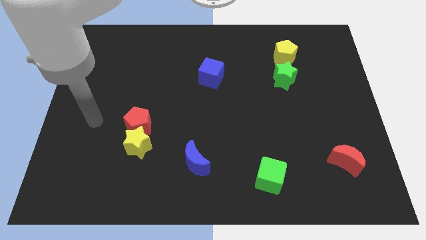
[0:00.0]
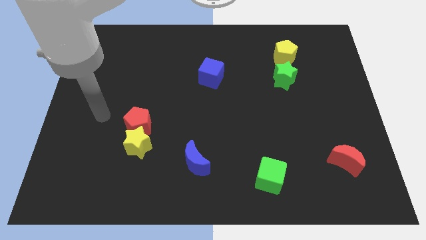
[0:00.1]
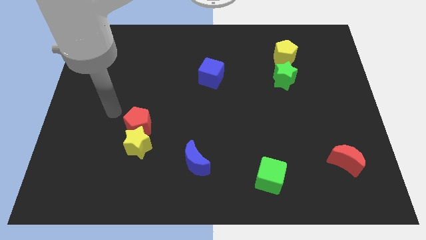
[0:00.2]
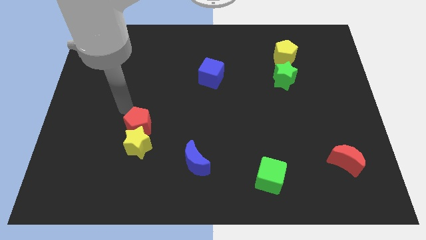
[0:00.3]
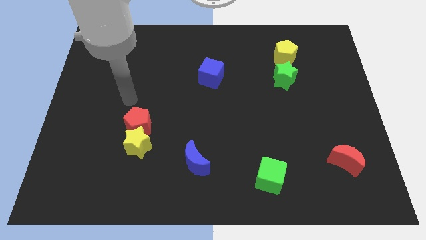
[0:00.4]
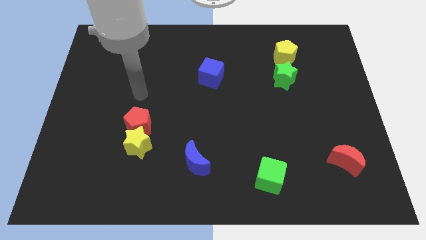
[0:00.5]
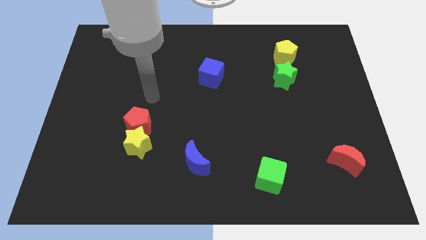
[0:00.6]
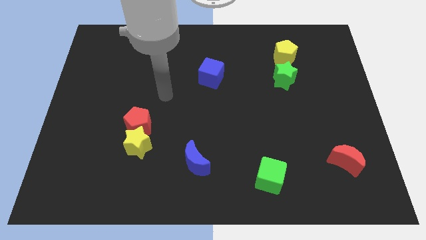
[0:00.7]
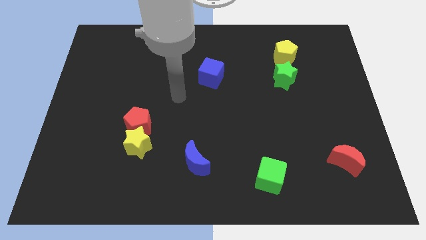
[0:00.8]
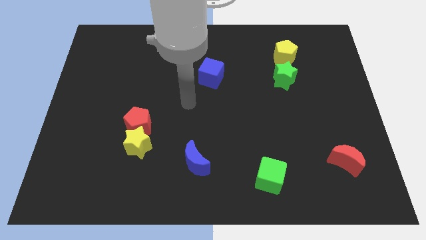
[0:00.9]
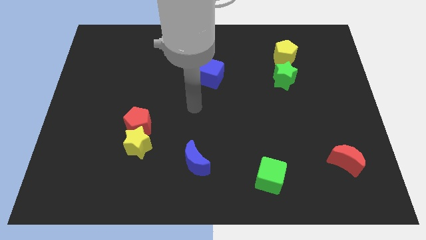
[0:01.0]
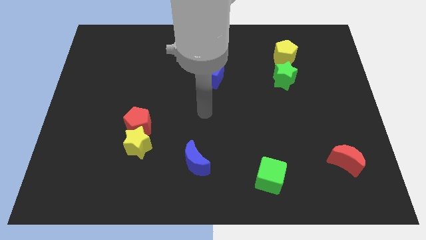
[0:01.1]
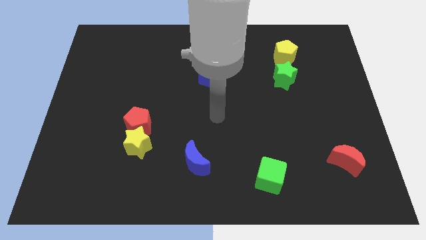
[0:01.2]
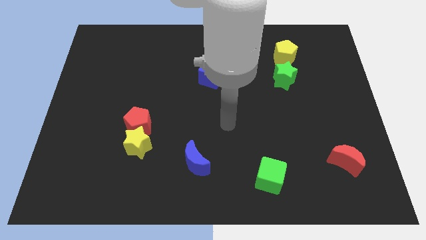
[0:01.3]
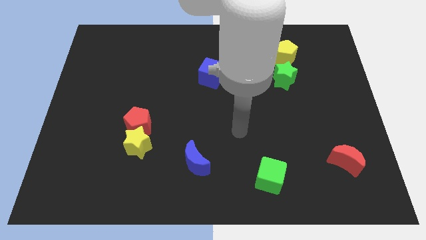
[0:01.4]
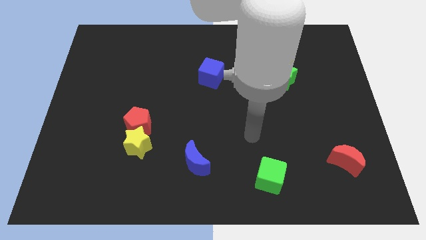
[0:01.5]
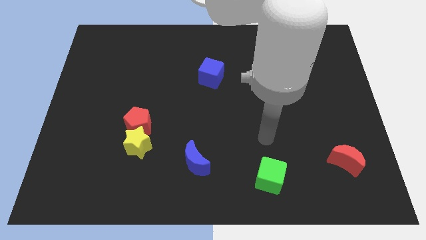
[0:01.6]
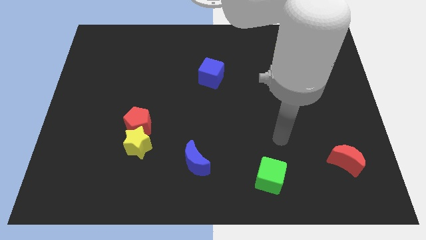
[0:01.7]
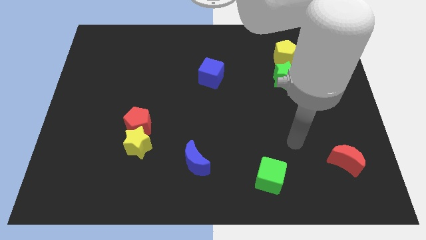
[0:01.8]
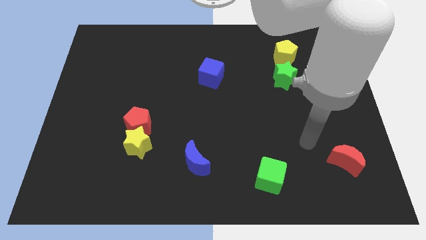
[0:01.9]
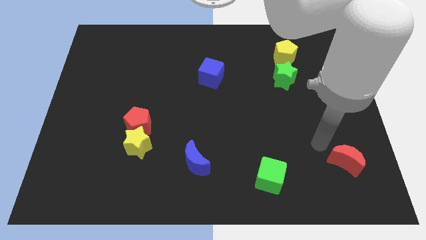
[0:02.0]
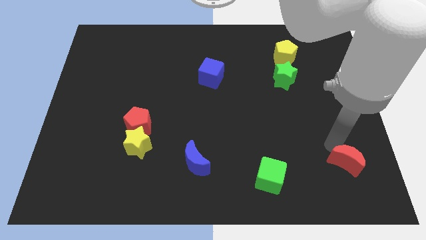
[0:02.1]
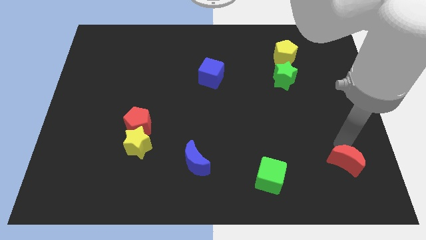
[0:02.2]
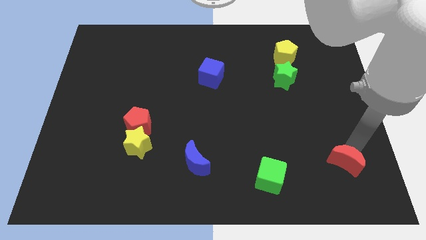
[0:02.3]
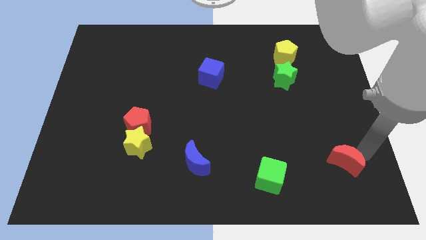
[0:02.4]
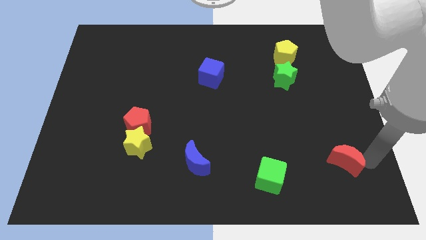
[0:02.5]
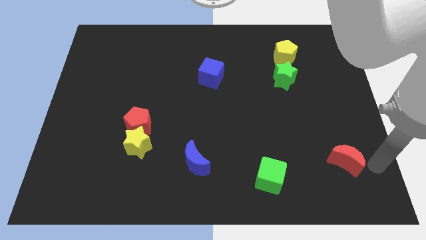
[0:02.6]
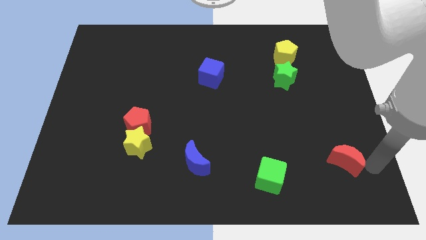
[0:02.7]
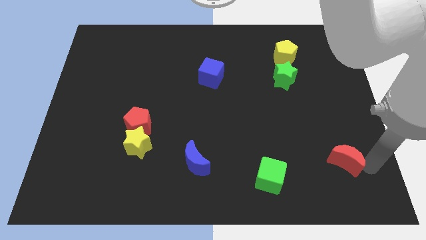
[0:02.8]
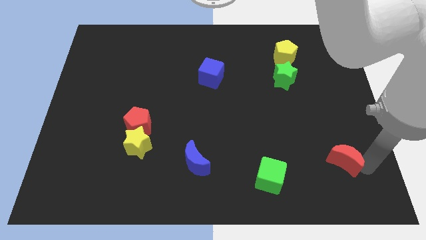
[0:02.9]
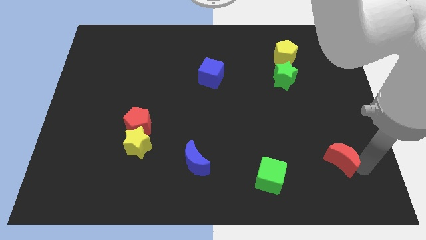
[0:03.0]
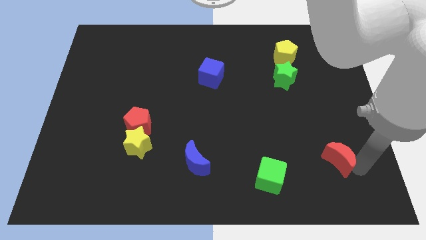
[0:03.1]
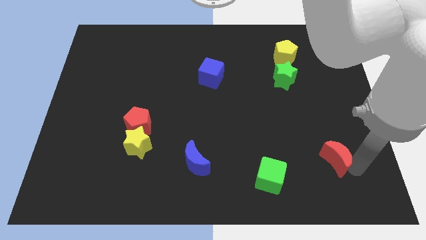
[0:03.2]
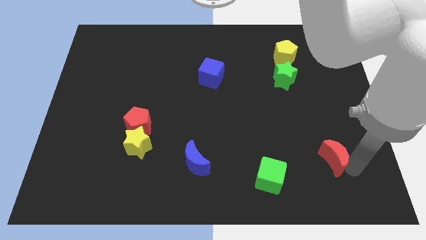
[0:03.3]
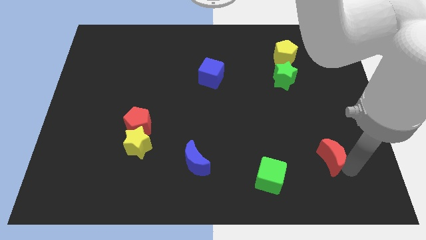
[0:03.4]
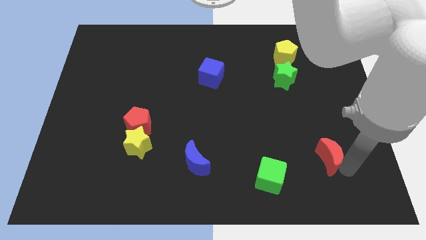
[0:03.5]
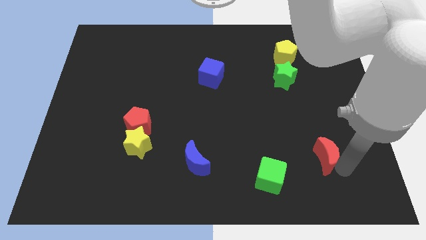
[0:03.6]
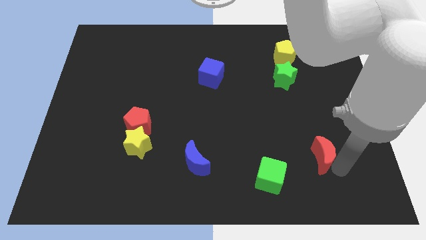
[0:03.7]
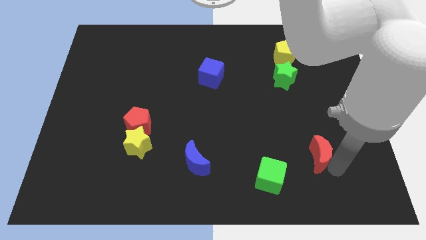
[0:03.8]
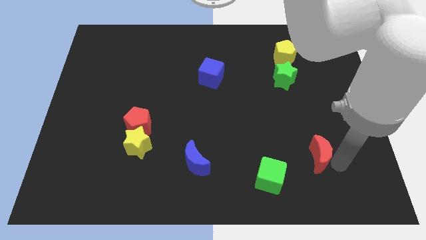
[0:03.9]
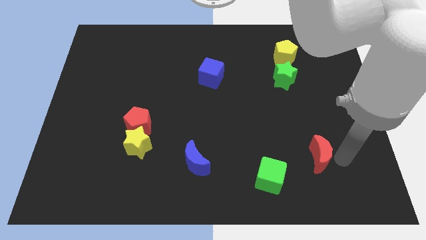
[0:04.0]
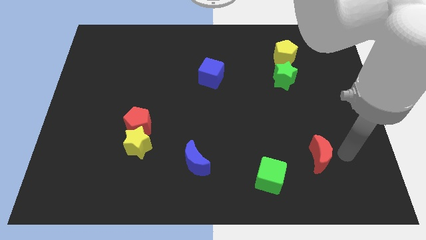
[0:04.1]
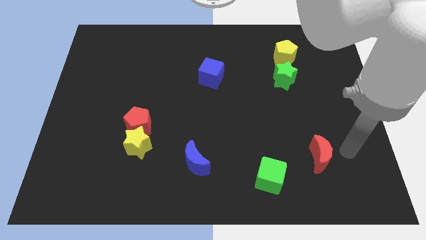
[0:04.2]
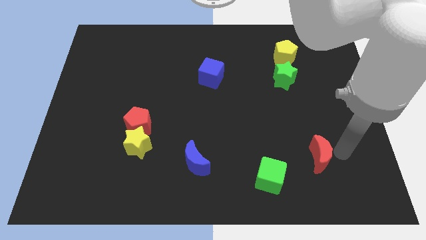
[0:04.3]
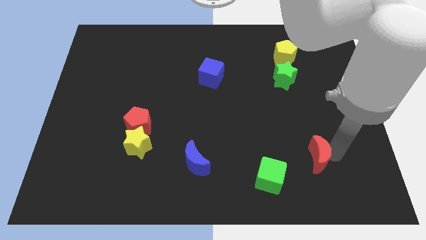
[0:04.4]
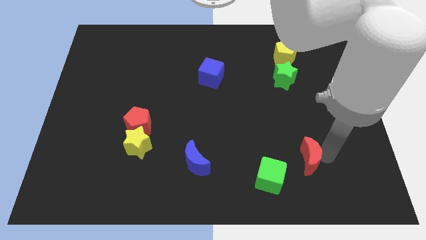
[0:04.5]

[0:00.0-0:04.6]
move the red moon slightly to the left

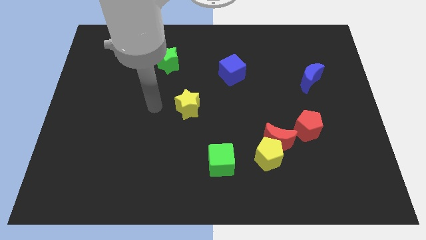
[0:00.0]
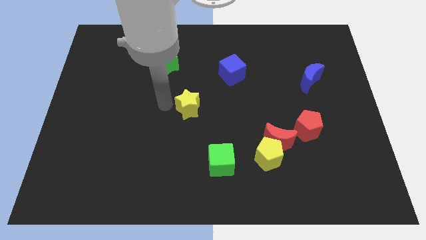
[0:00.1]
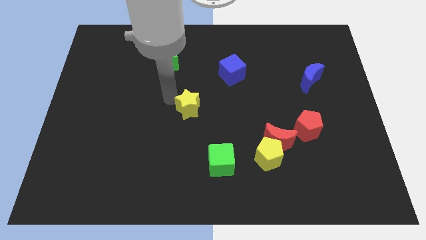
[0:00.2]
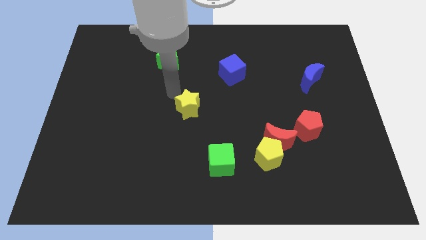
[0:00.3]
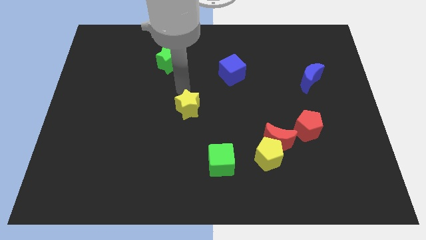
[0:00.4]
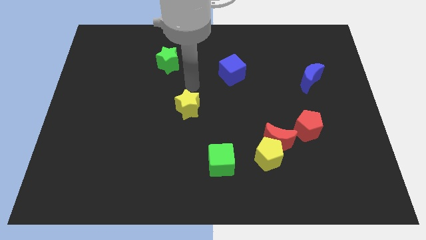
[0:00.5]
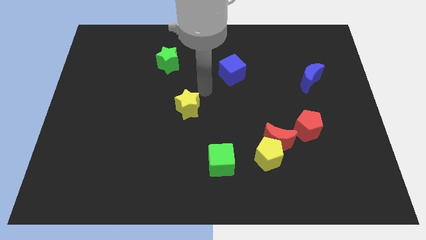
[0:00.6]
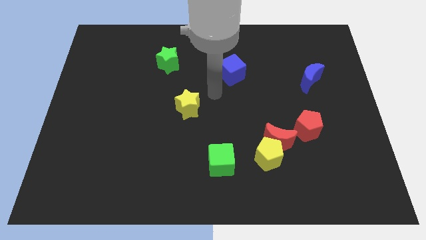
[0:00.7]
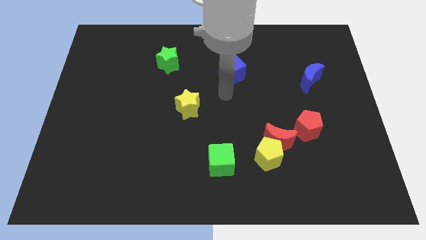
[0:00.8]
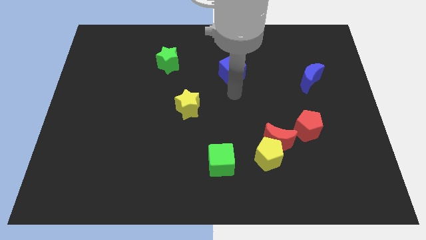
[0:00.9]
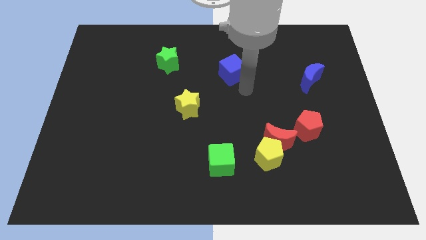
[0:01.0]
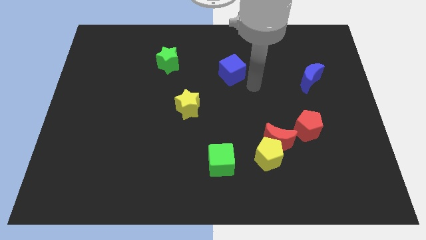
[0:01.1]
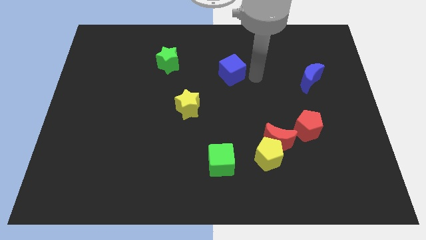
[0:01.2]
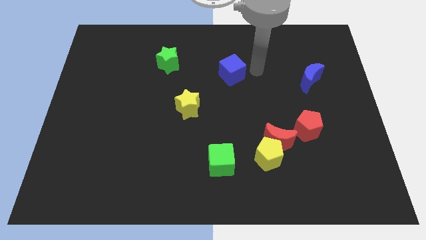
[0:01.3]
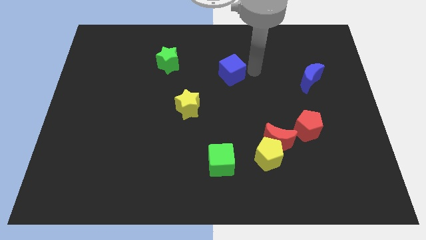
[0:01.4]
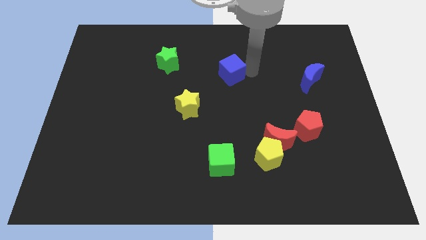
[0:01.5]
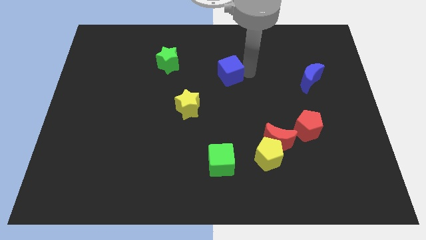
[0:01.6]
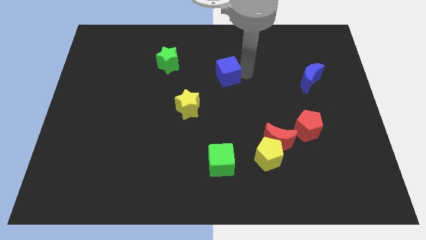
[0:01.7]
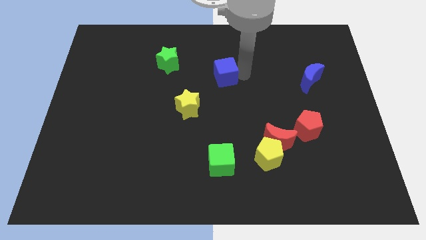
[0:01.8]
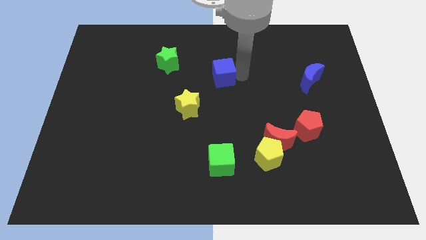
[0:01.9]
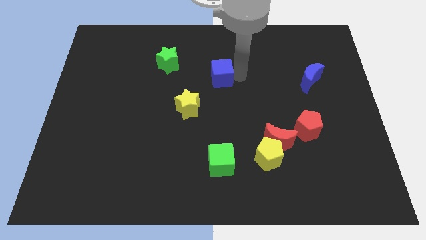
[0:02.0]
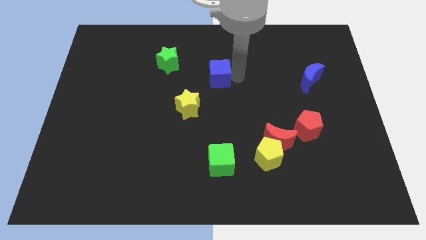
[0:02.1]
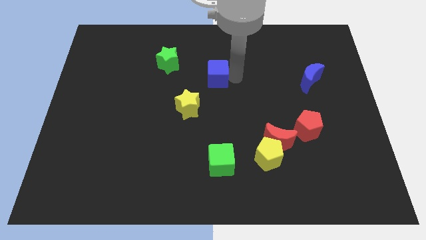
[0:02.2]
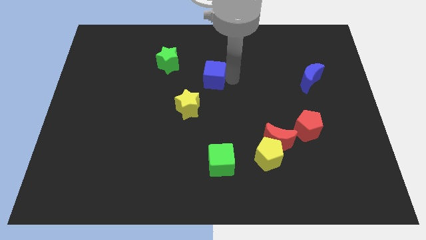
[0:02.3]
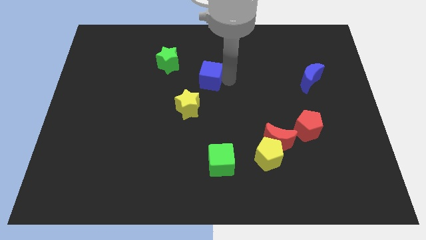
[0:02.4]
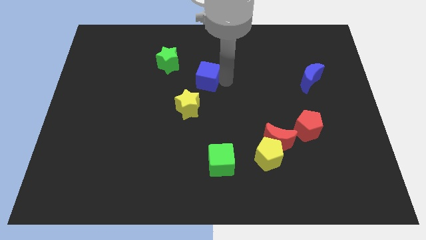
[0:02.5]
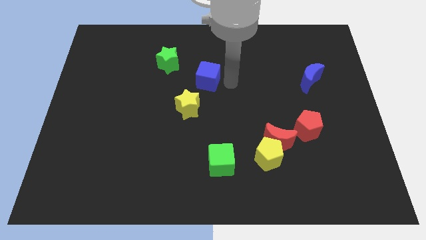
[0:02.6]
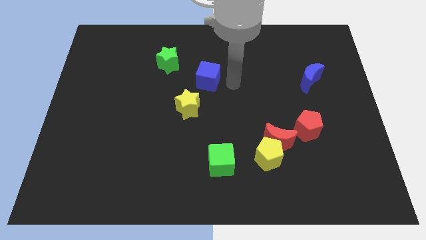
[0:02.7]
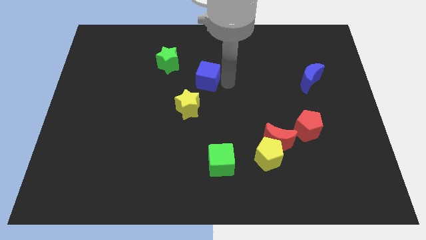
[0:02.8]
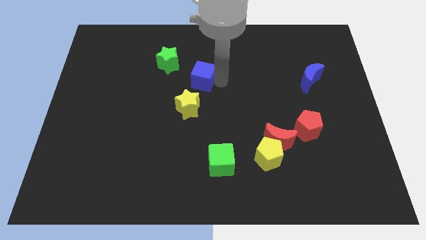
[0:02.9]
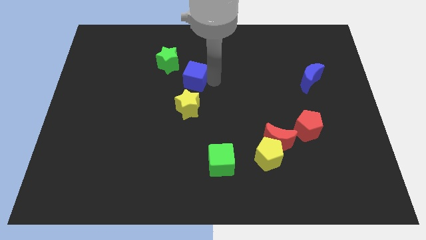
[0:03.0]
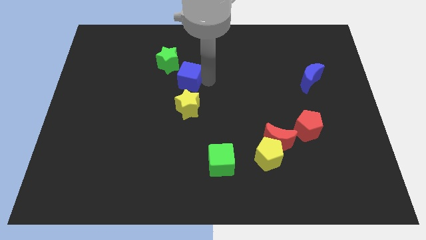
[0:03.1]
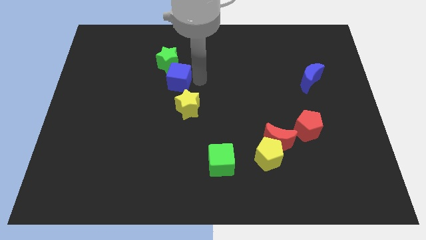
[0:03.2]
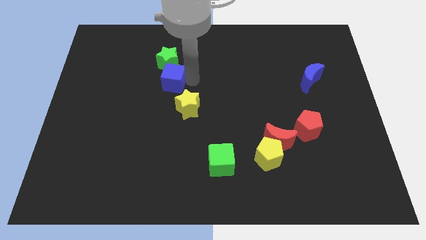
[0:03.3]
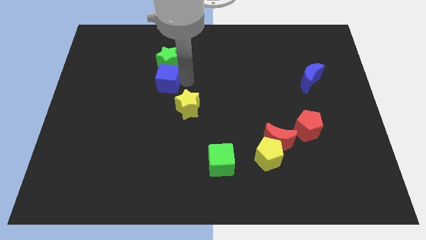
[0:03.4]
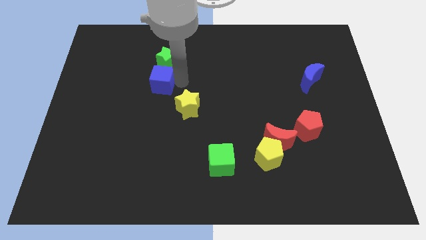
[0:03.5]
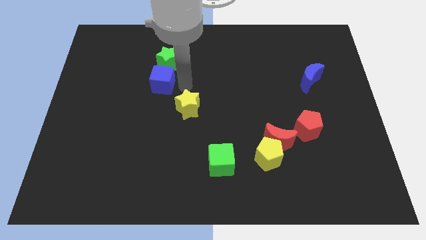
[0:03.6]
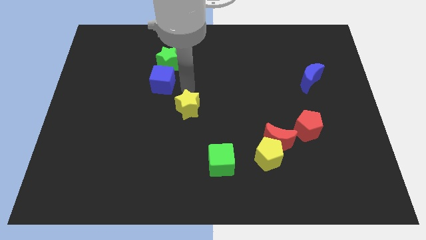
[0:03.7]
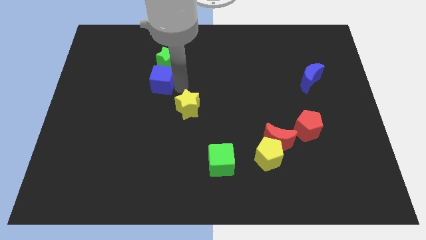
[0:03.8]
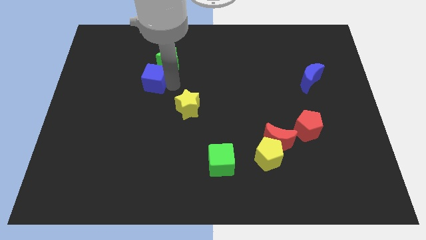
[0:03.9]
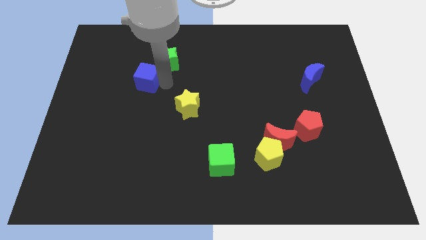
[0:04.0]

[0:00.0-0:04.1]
push the blue cube left
